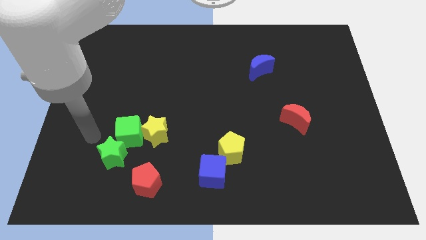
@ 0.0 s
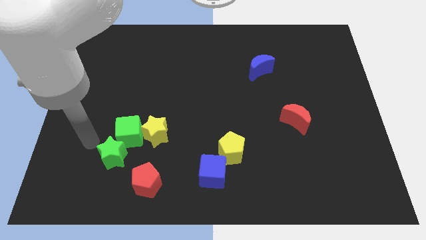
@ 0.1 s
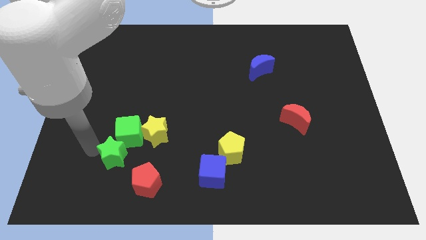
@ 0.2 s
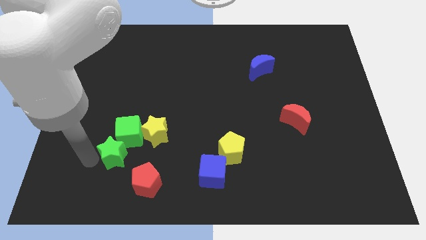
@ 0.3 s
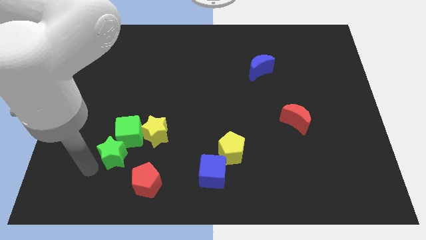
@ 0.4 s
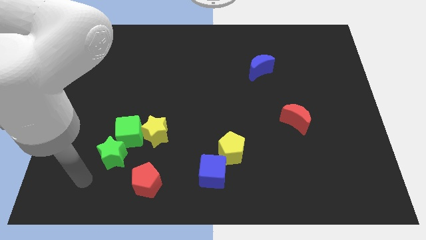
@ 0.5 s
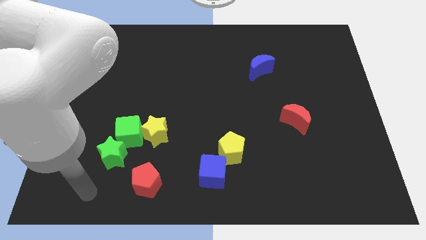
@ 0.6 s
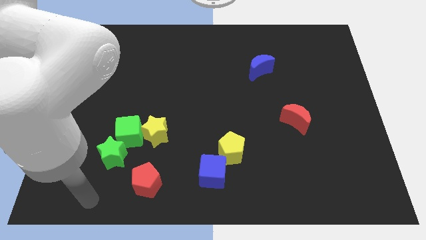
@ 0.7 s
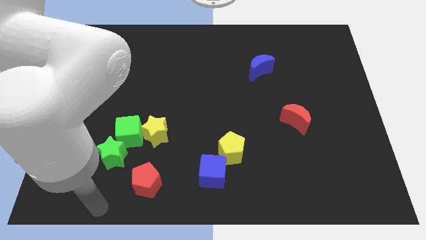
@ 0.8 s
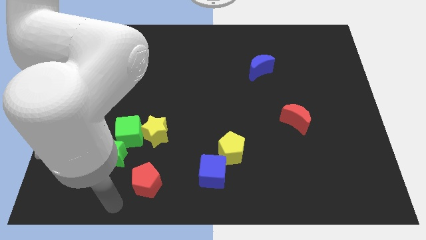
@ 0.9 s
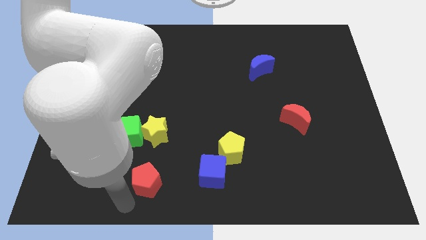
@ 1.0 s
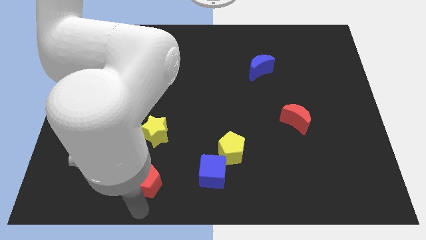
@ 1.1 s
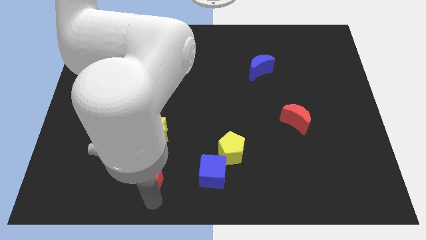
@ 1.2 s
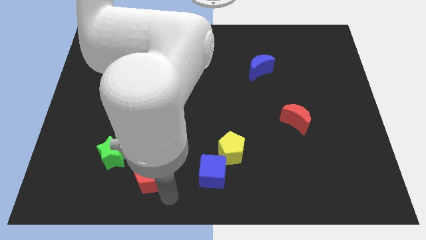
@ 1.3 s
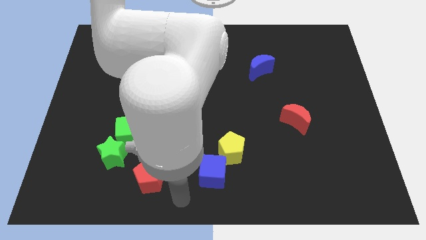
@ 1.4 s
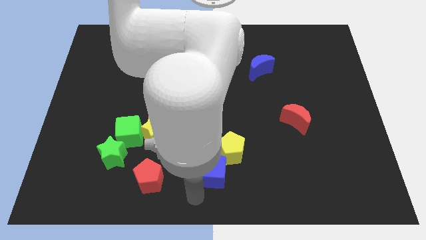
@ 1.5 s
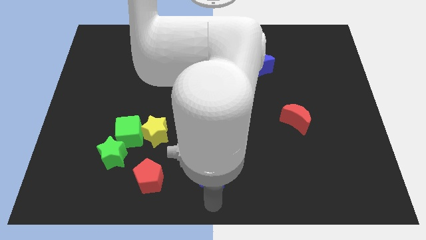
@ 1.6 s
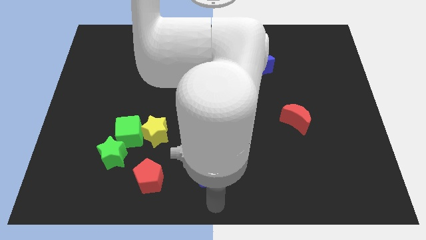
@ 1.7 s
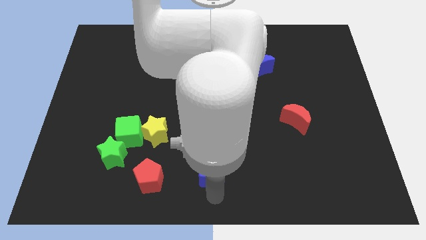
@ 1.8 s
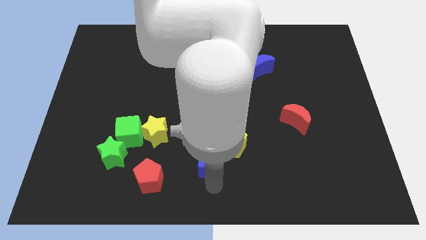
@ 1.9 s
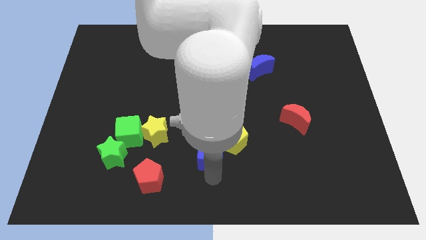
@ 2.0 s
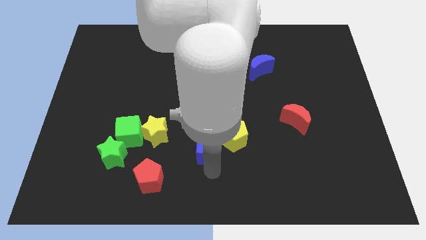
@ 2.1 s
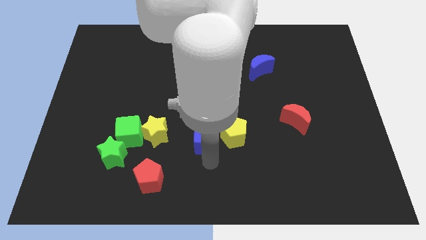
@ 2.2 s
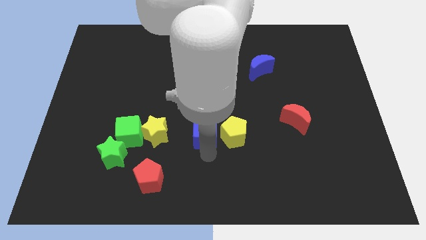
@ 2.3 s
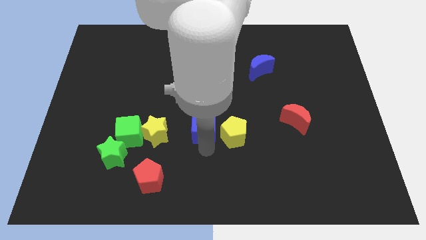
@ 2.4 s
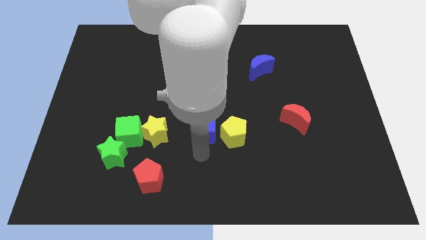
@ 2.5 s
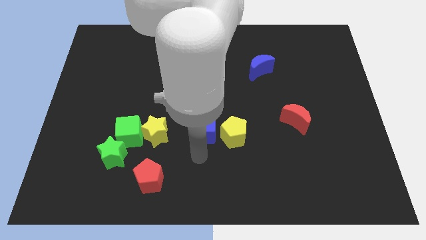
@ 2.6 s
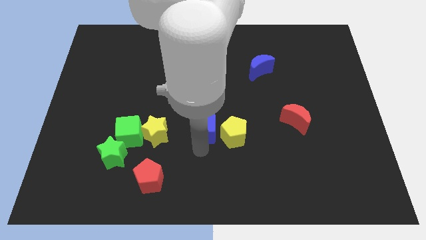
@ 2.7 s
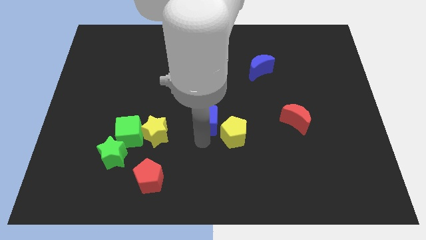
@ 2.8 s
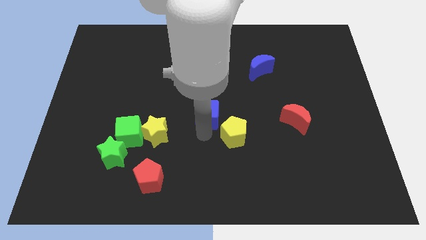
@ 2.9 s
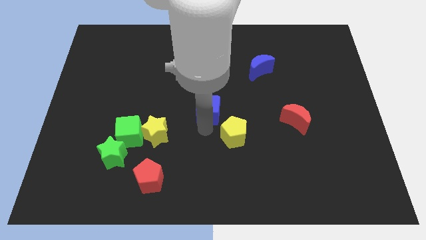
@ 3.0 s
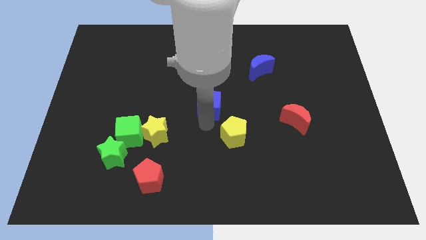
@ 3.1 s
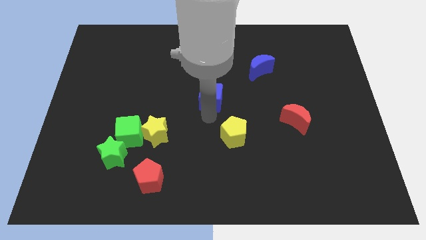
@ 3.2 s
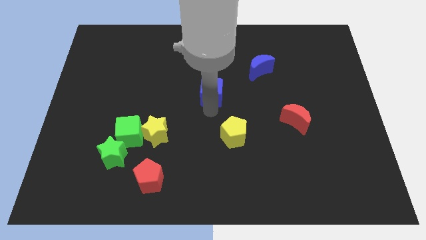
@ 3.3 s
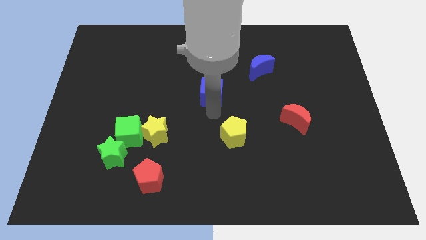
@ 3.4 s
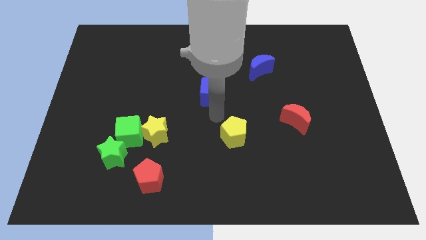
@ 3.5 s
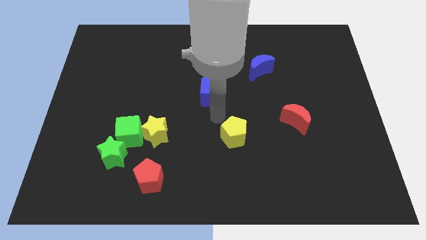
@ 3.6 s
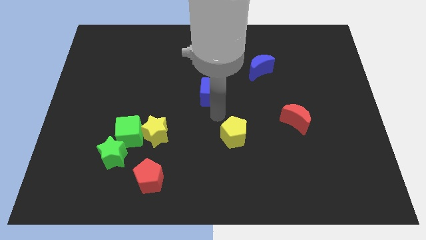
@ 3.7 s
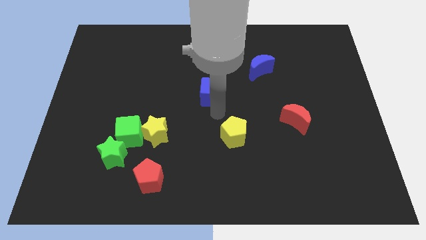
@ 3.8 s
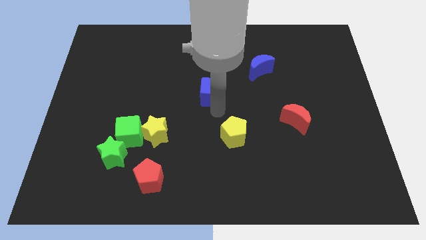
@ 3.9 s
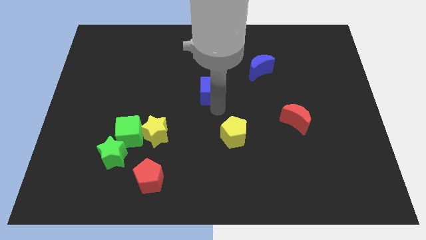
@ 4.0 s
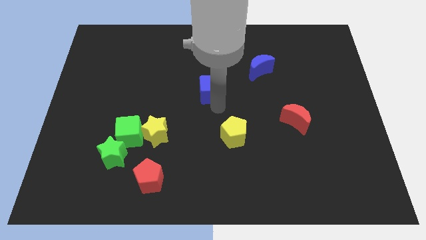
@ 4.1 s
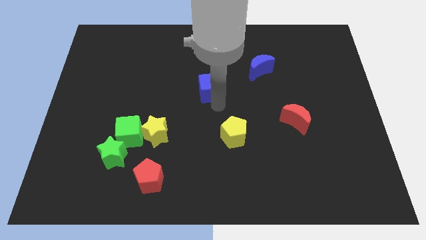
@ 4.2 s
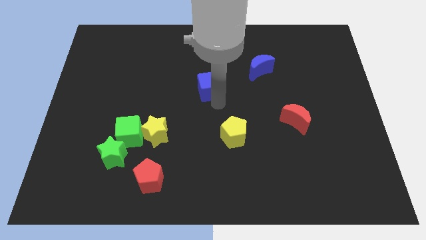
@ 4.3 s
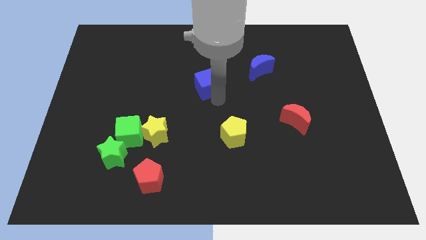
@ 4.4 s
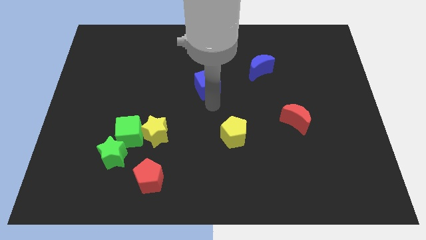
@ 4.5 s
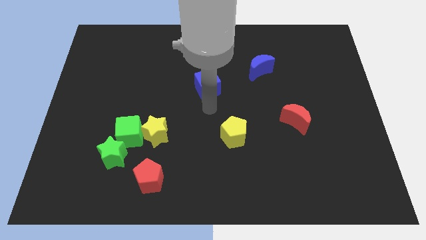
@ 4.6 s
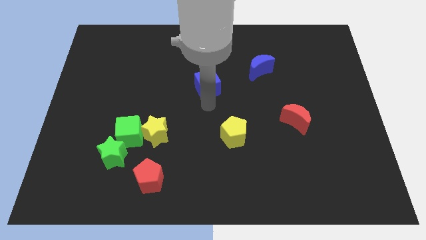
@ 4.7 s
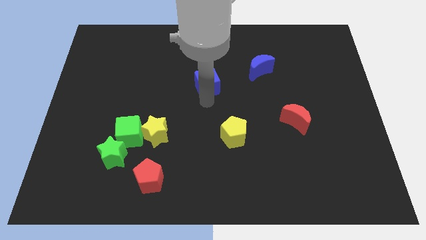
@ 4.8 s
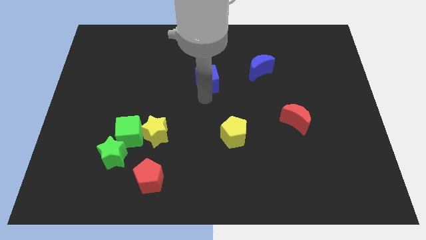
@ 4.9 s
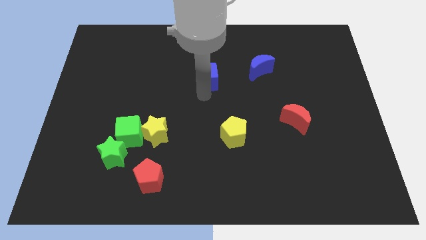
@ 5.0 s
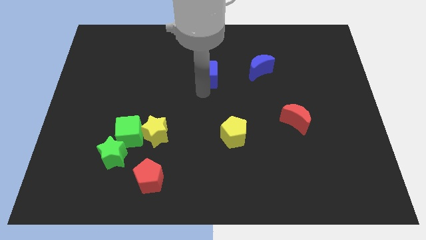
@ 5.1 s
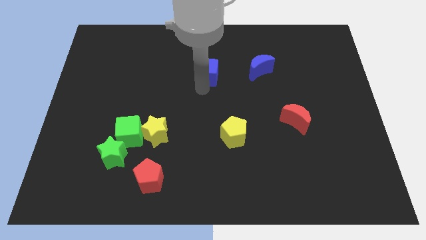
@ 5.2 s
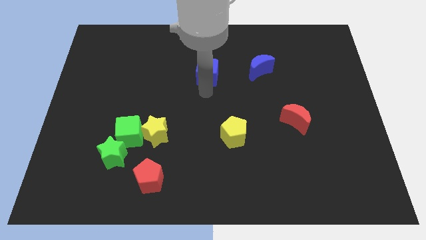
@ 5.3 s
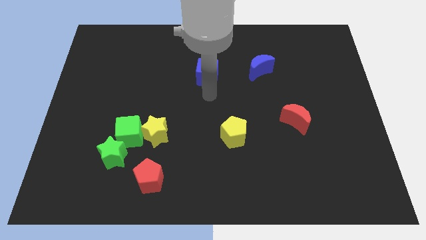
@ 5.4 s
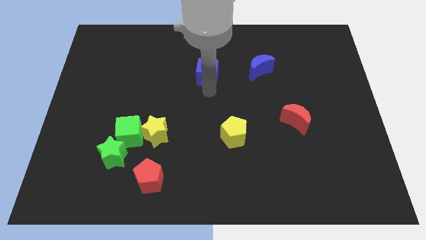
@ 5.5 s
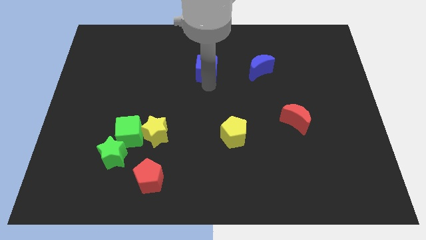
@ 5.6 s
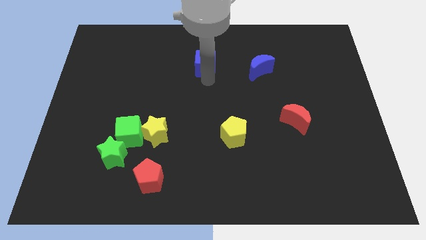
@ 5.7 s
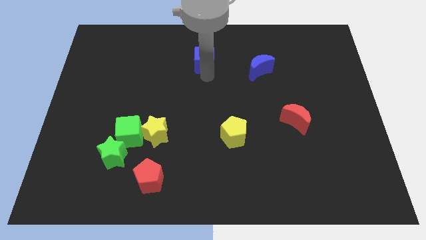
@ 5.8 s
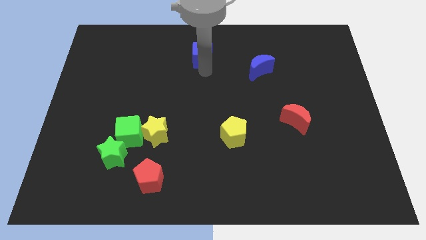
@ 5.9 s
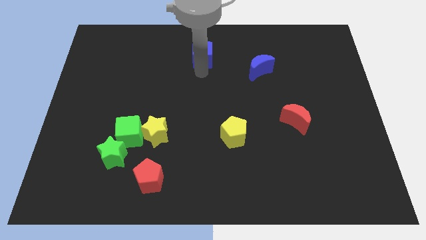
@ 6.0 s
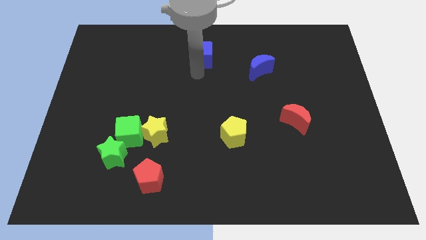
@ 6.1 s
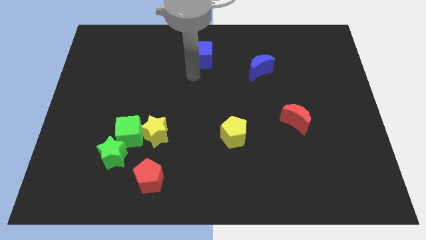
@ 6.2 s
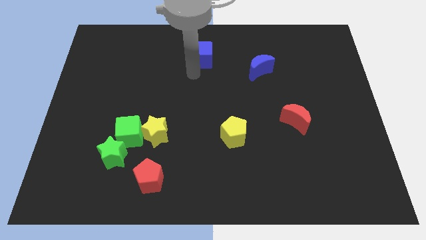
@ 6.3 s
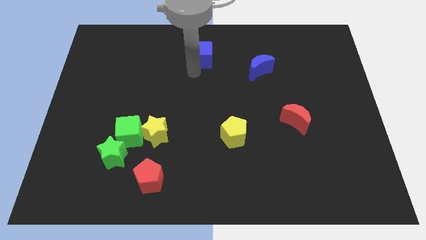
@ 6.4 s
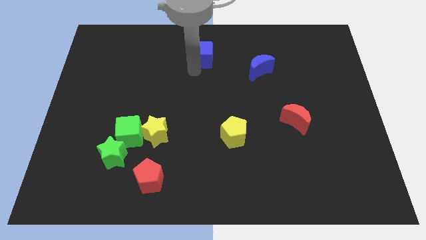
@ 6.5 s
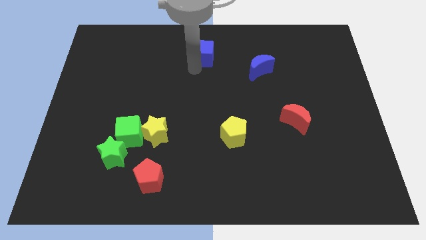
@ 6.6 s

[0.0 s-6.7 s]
move the blue cube to the top side
